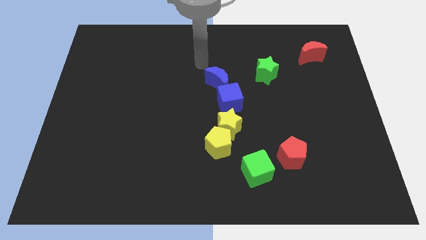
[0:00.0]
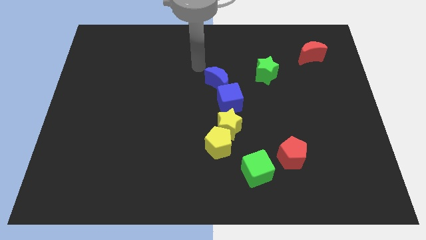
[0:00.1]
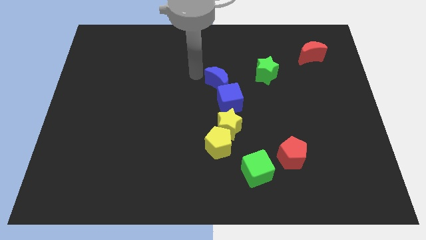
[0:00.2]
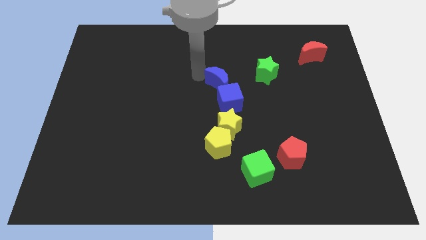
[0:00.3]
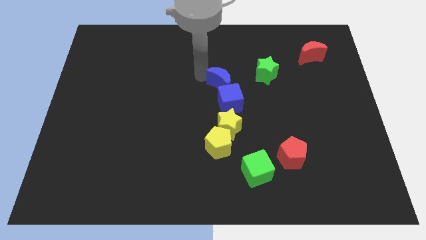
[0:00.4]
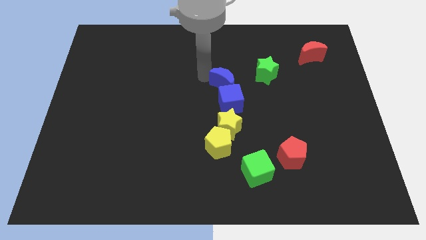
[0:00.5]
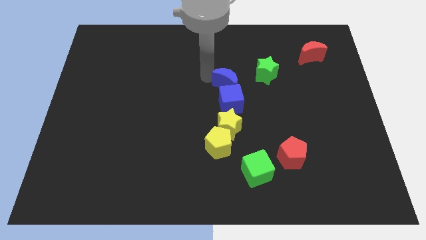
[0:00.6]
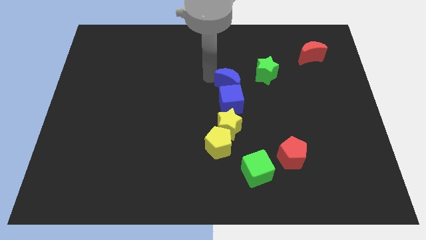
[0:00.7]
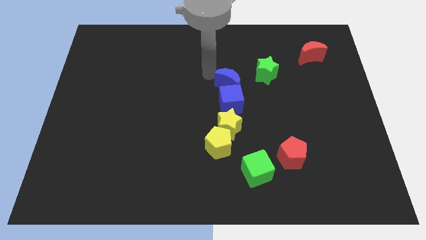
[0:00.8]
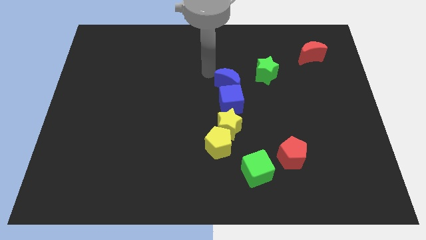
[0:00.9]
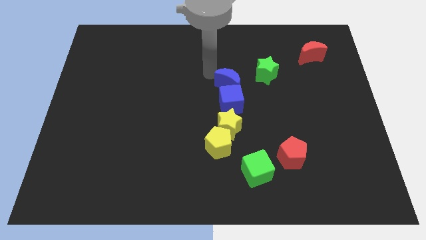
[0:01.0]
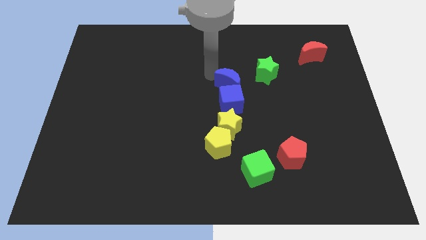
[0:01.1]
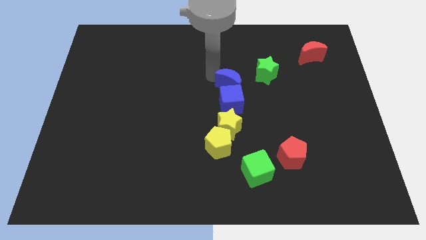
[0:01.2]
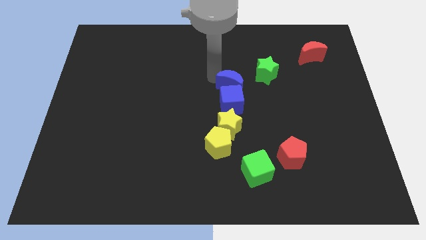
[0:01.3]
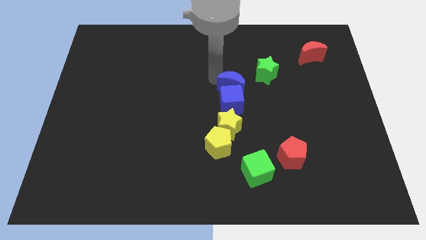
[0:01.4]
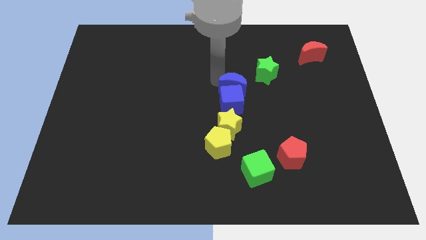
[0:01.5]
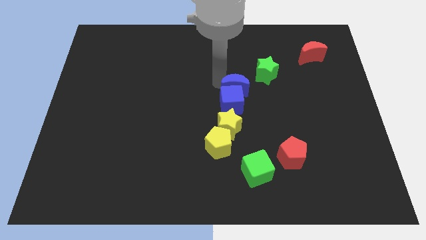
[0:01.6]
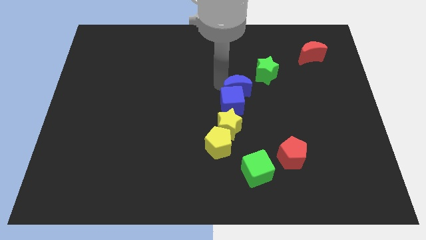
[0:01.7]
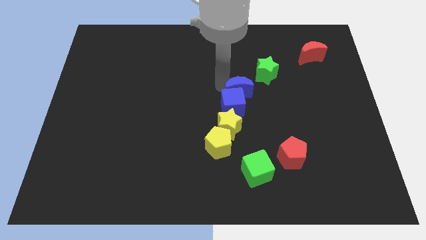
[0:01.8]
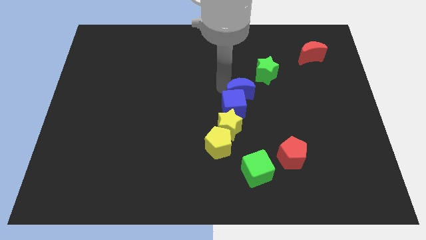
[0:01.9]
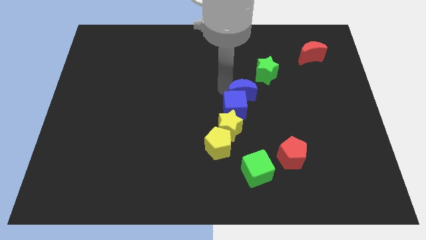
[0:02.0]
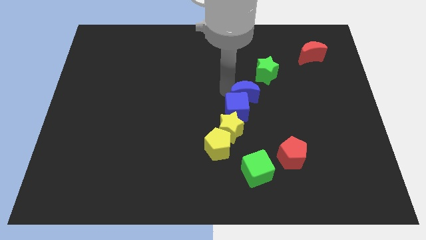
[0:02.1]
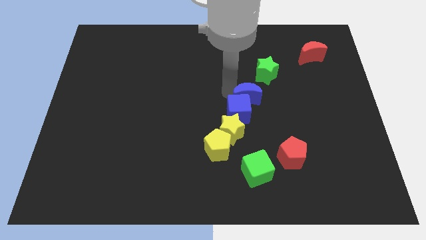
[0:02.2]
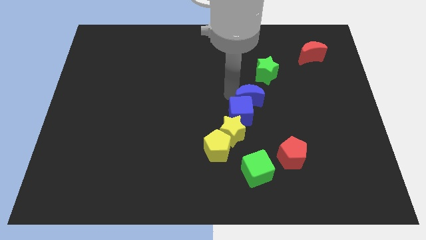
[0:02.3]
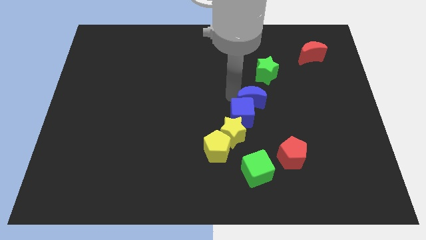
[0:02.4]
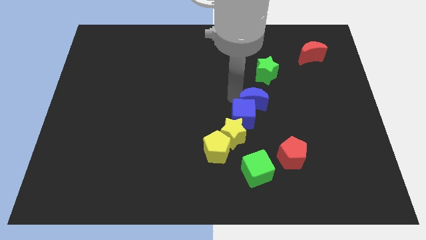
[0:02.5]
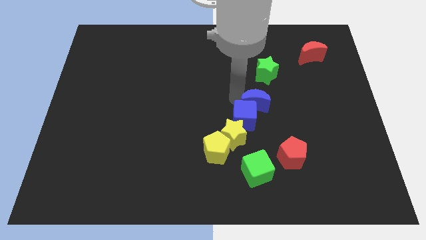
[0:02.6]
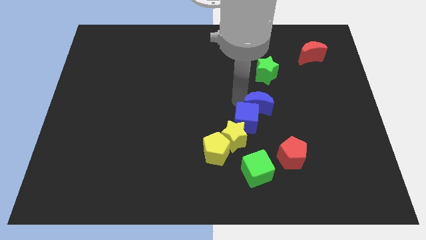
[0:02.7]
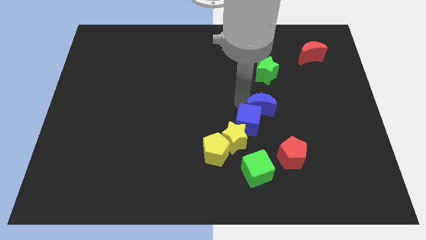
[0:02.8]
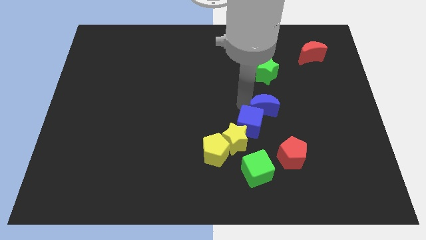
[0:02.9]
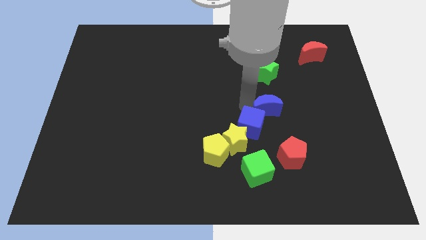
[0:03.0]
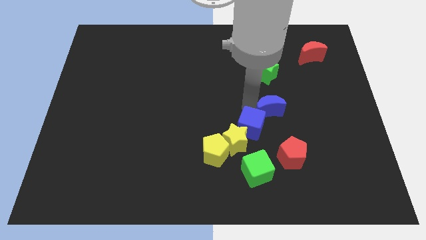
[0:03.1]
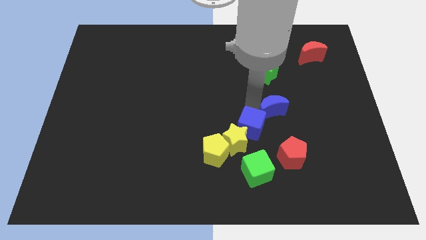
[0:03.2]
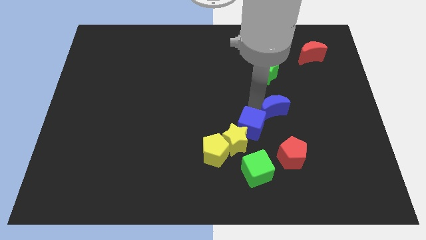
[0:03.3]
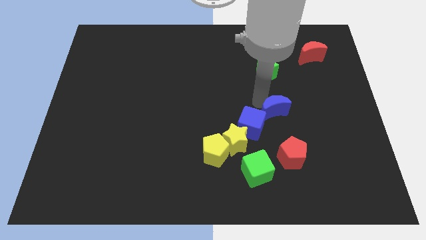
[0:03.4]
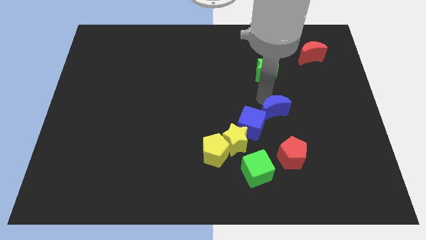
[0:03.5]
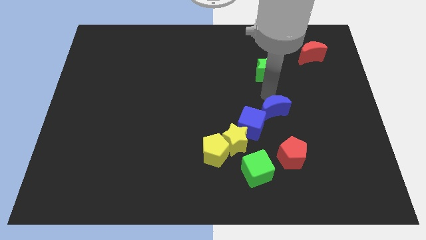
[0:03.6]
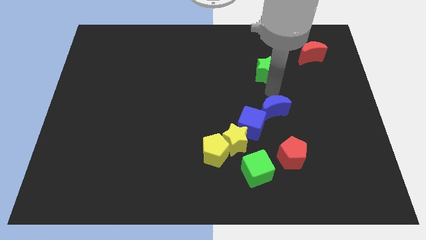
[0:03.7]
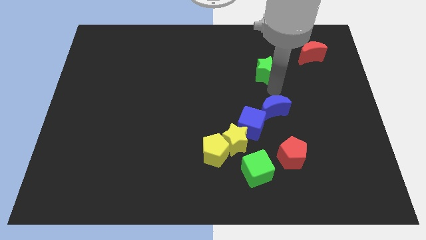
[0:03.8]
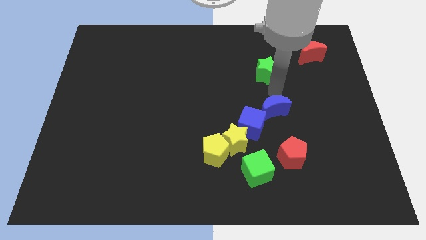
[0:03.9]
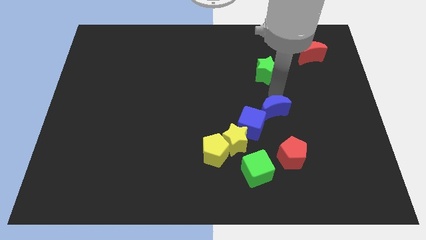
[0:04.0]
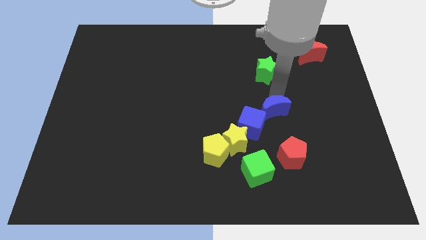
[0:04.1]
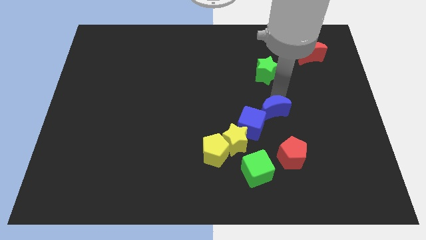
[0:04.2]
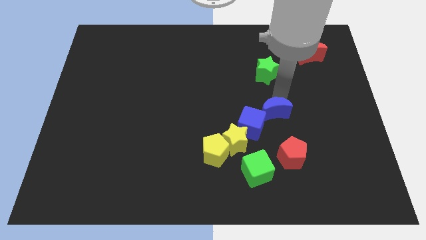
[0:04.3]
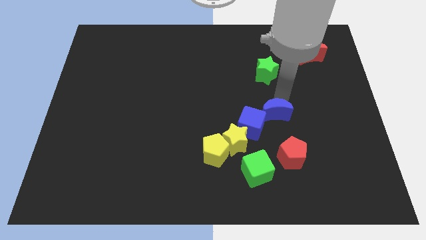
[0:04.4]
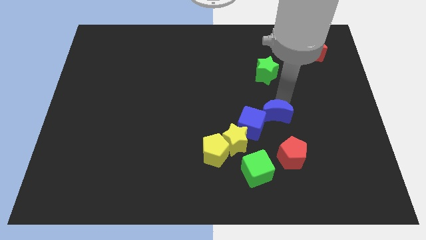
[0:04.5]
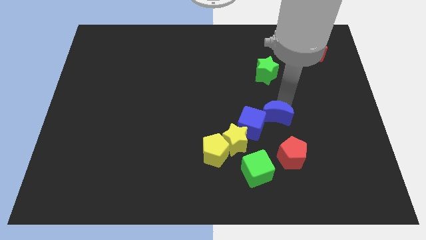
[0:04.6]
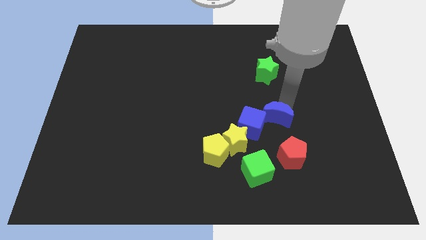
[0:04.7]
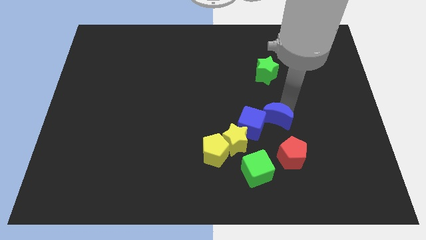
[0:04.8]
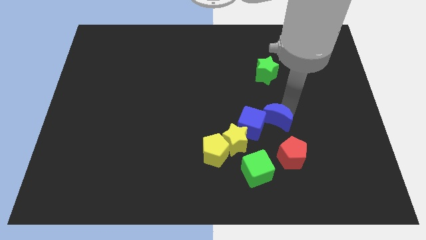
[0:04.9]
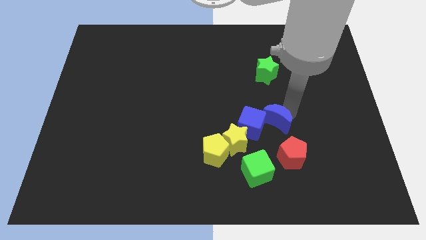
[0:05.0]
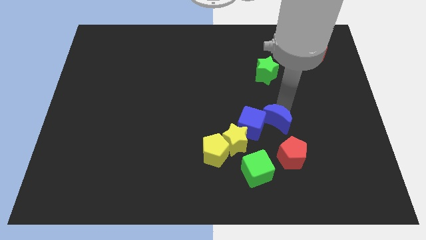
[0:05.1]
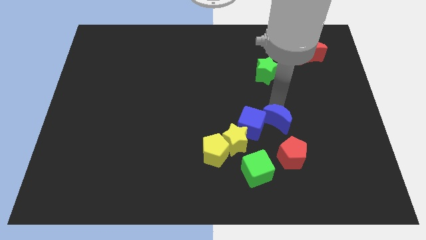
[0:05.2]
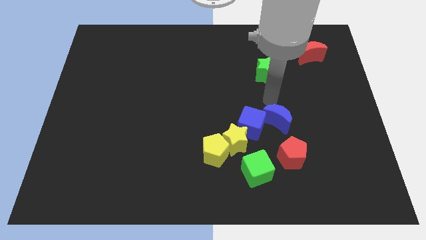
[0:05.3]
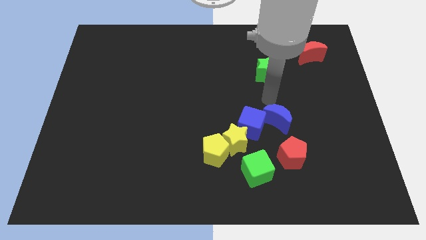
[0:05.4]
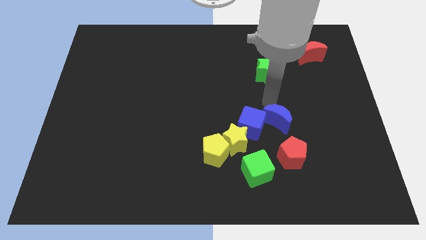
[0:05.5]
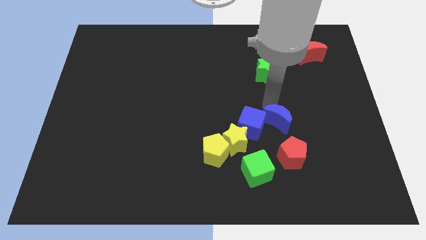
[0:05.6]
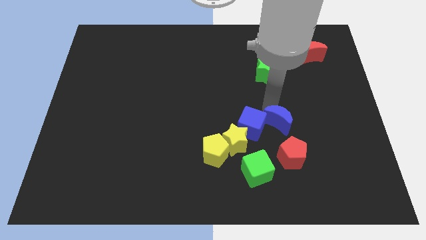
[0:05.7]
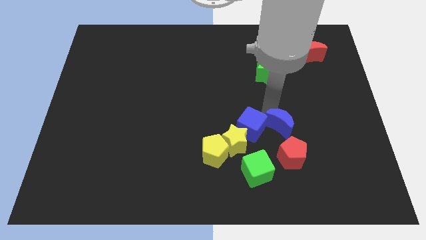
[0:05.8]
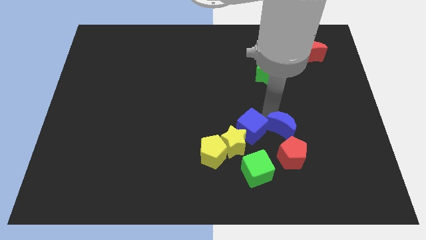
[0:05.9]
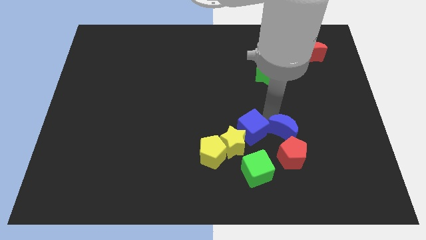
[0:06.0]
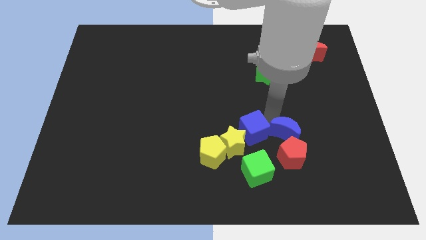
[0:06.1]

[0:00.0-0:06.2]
move the blue moon to the red pentagon

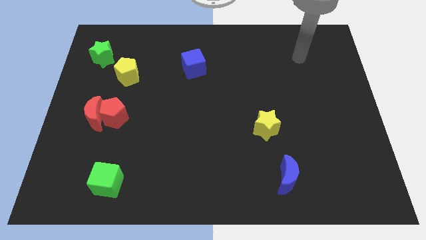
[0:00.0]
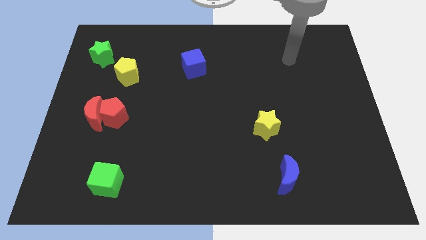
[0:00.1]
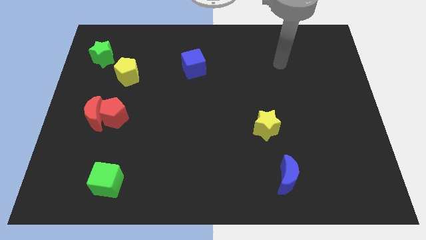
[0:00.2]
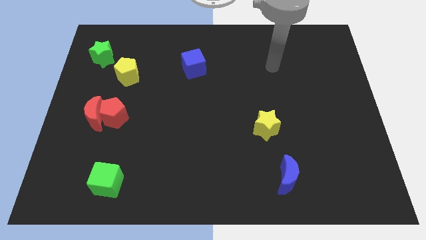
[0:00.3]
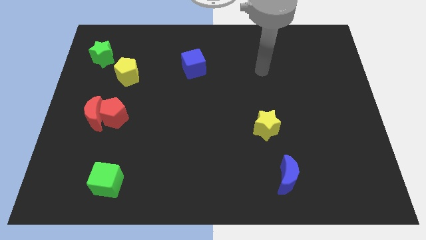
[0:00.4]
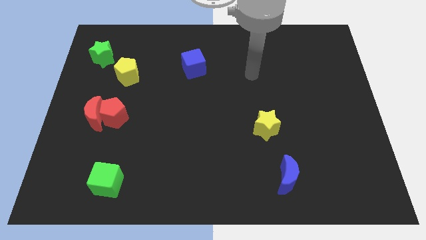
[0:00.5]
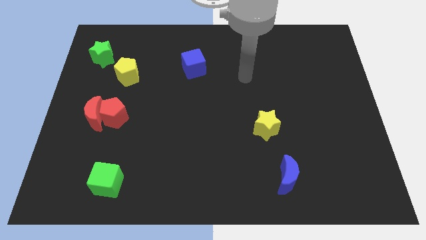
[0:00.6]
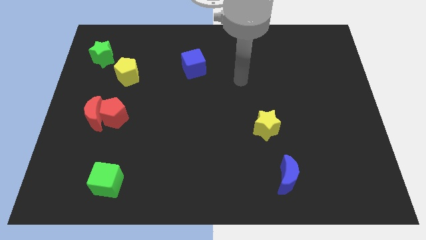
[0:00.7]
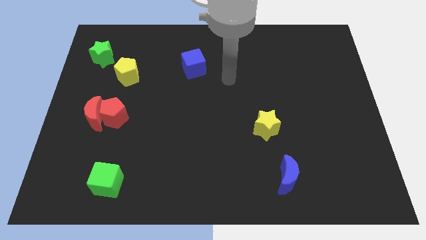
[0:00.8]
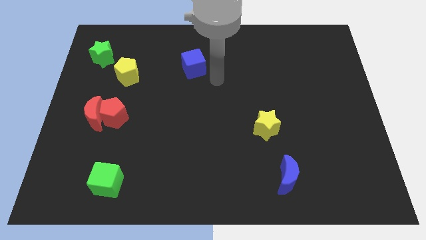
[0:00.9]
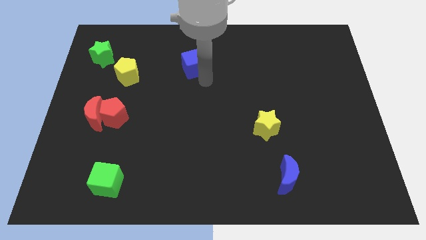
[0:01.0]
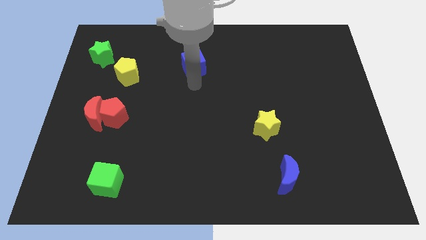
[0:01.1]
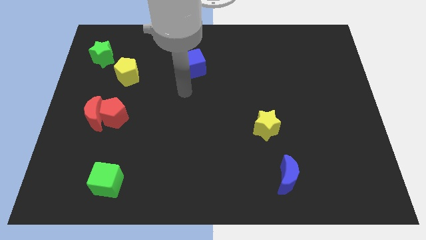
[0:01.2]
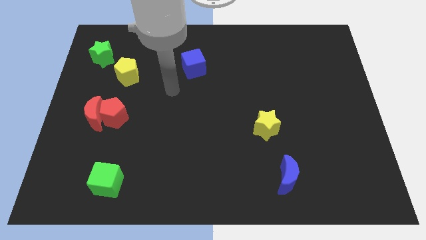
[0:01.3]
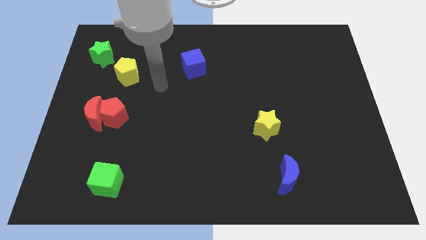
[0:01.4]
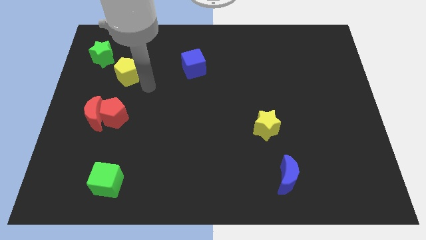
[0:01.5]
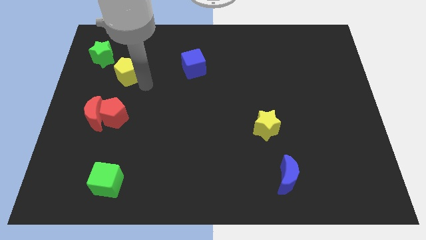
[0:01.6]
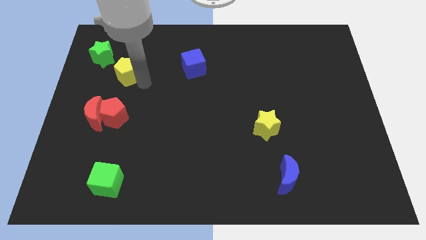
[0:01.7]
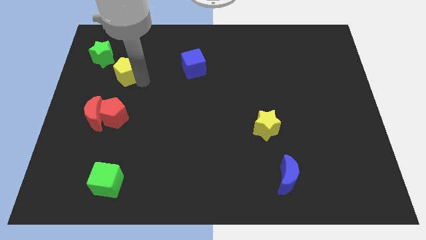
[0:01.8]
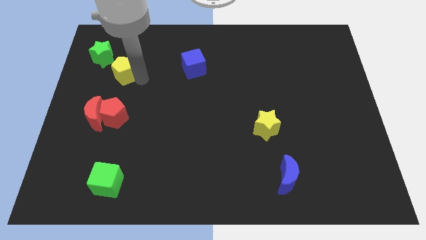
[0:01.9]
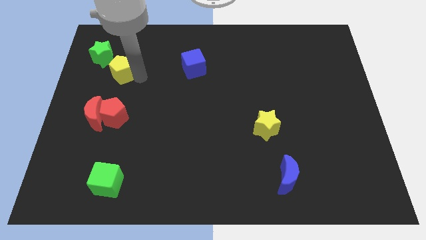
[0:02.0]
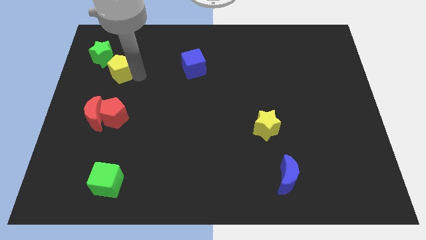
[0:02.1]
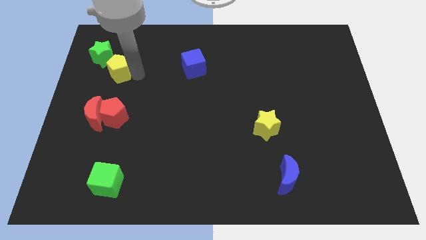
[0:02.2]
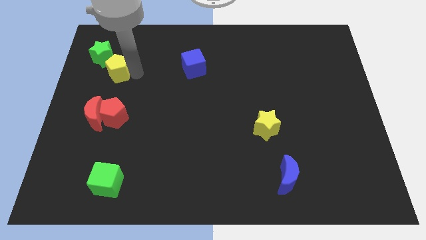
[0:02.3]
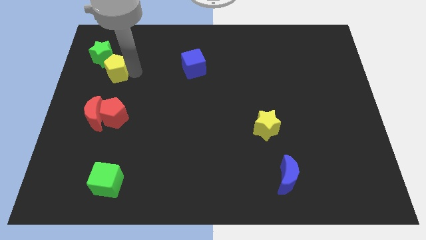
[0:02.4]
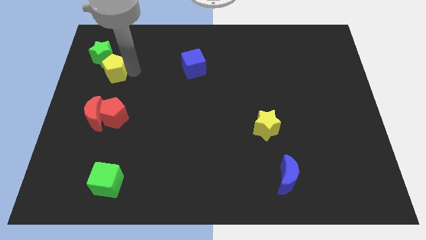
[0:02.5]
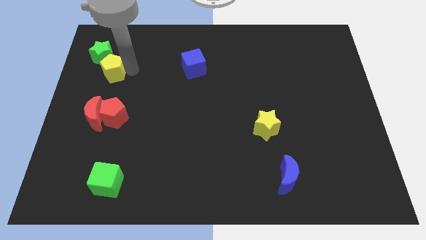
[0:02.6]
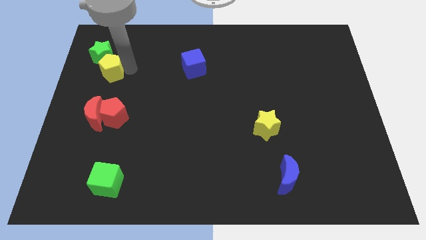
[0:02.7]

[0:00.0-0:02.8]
move the yellow pentagon next to the green star
